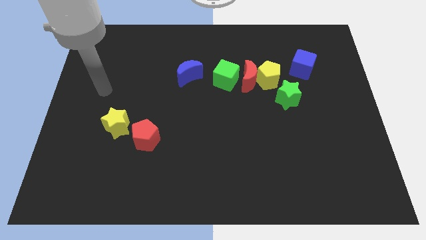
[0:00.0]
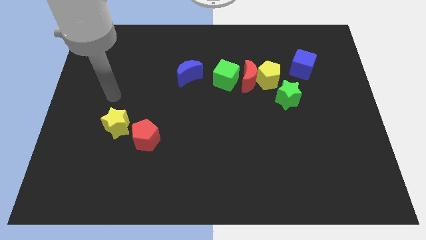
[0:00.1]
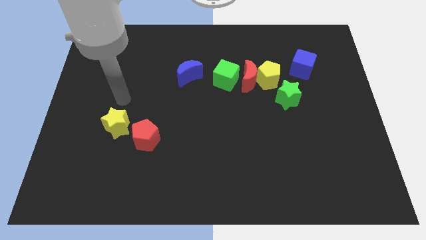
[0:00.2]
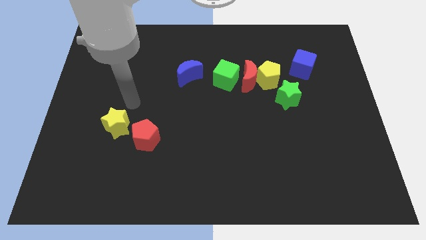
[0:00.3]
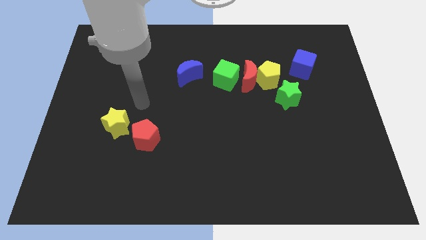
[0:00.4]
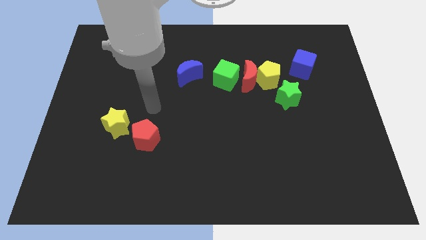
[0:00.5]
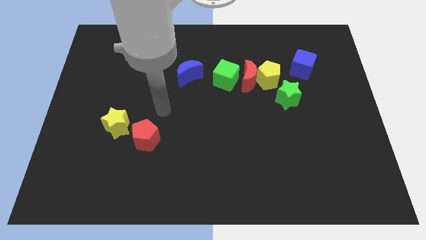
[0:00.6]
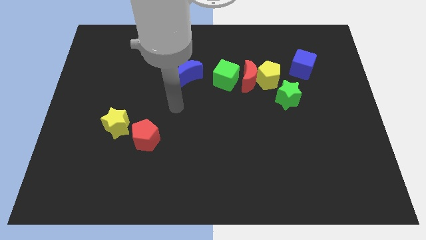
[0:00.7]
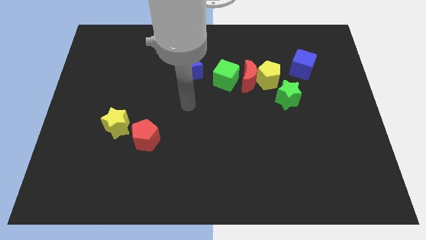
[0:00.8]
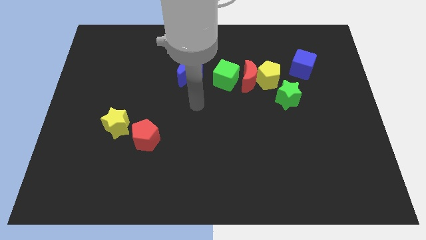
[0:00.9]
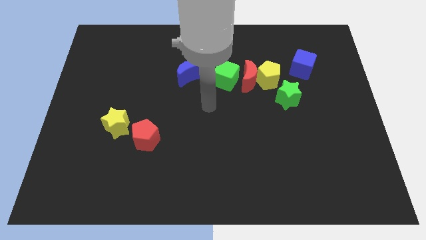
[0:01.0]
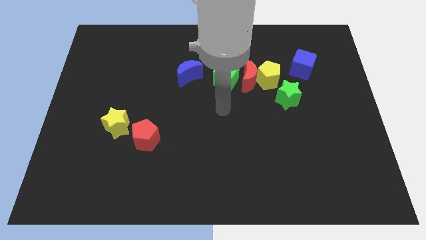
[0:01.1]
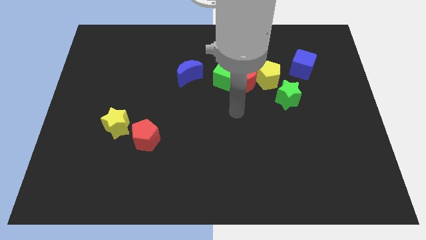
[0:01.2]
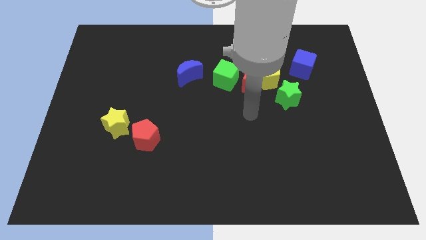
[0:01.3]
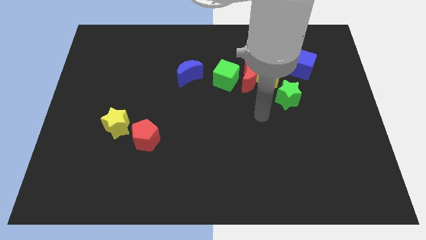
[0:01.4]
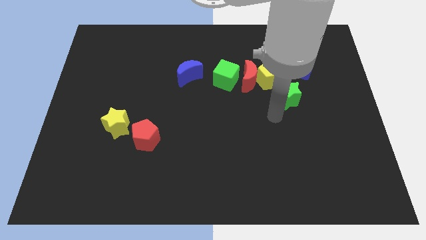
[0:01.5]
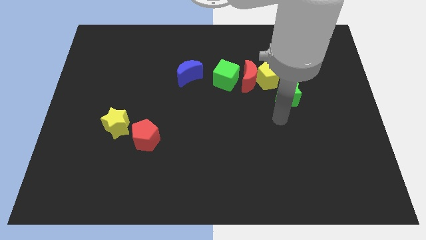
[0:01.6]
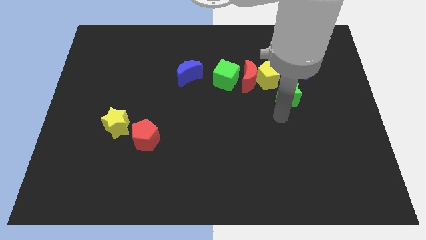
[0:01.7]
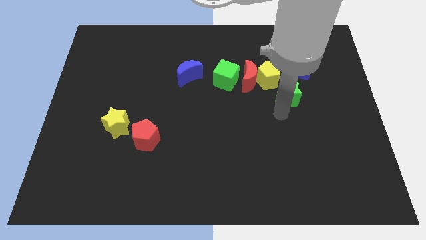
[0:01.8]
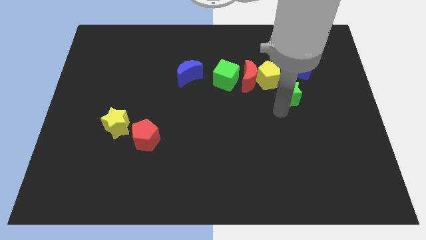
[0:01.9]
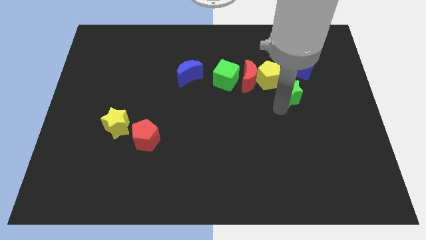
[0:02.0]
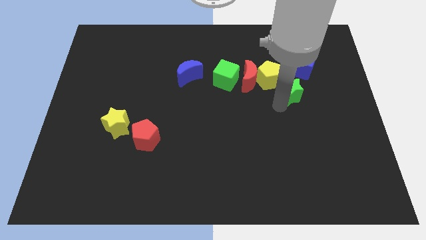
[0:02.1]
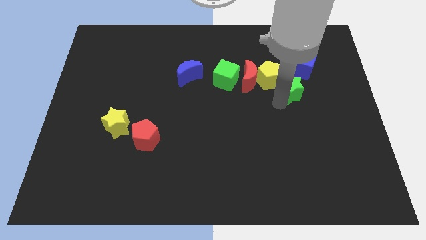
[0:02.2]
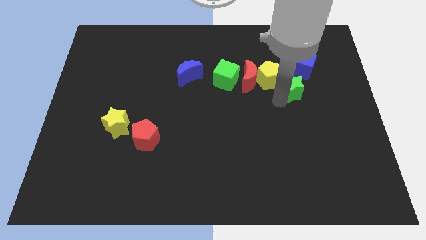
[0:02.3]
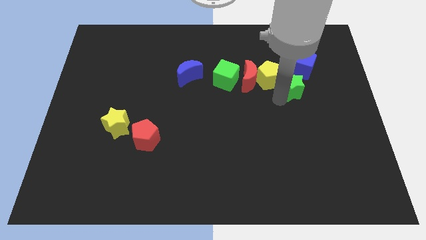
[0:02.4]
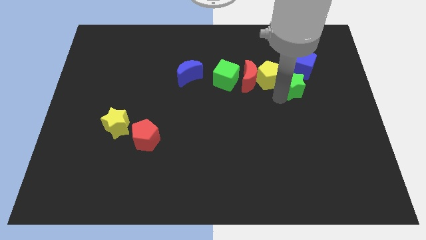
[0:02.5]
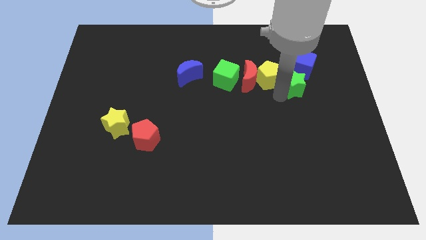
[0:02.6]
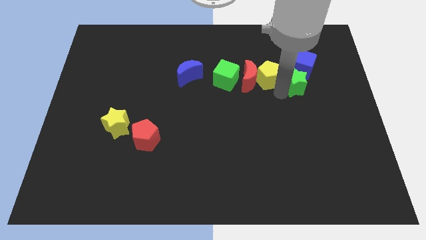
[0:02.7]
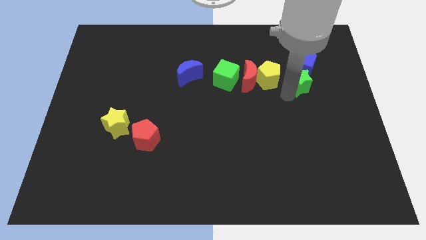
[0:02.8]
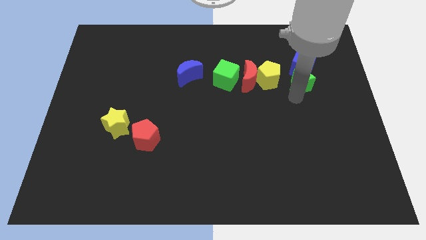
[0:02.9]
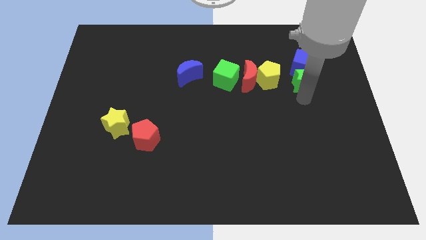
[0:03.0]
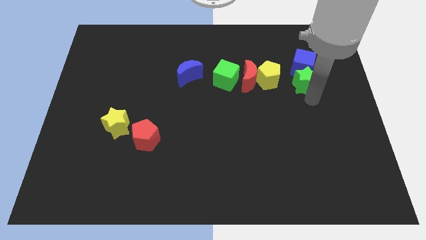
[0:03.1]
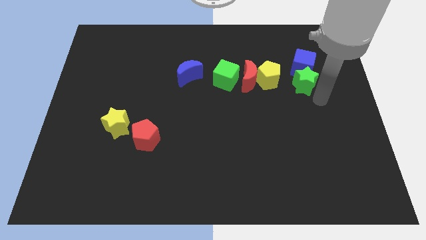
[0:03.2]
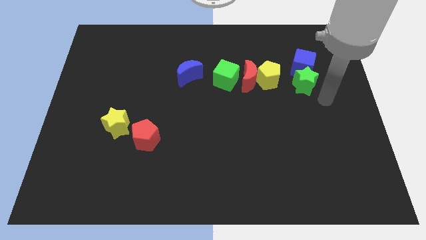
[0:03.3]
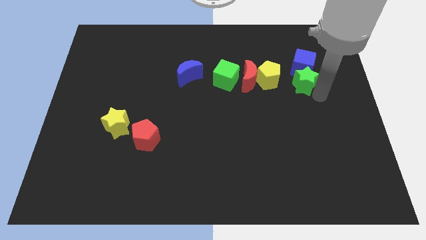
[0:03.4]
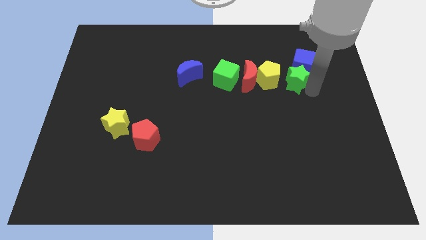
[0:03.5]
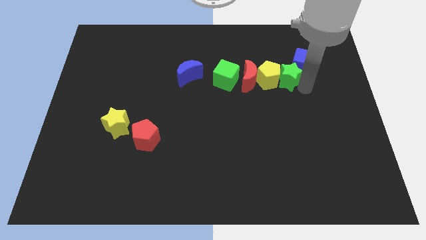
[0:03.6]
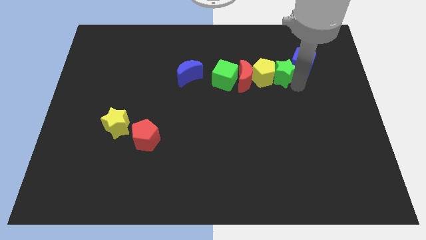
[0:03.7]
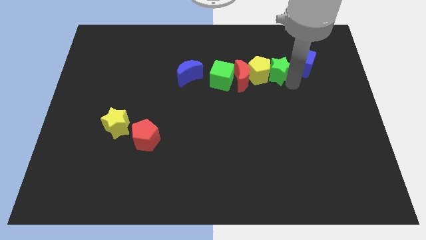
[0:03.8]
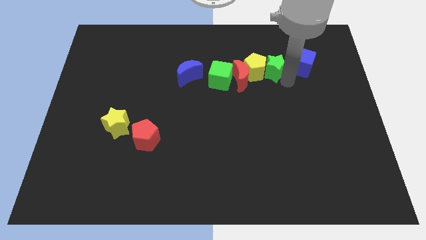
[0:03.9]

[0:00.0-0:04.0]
push the green star upwards and left diagonally a bit

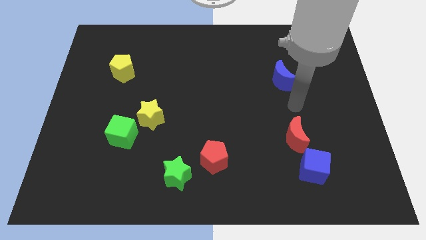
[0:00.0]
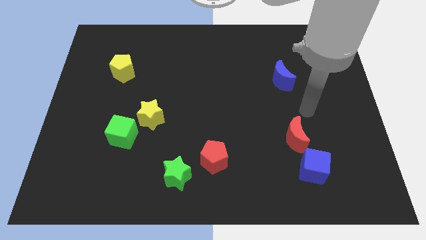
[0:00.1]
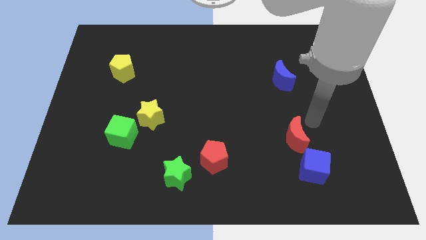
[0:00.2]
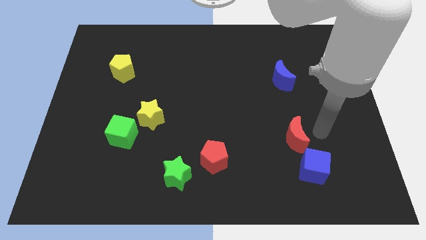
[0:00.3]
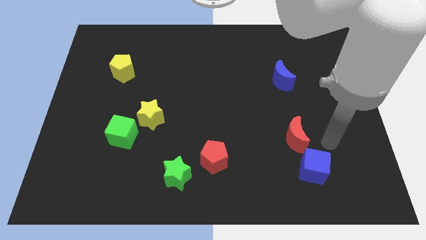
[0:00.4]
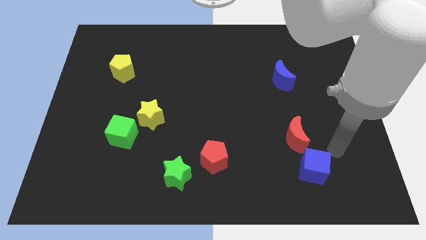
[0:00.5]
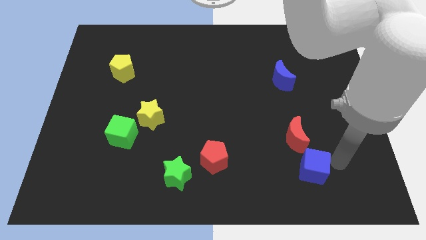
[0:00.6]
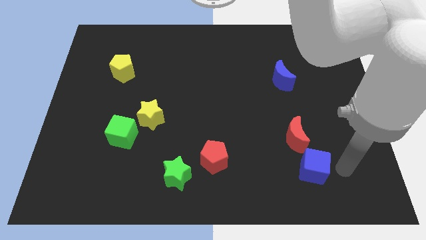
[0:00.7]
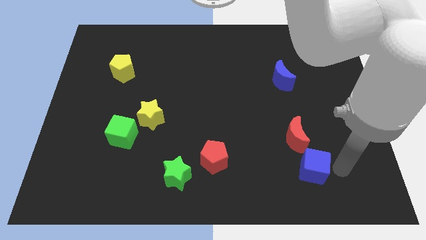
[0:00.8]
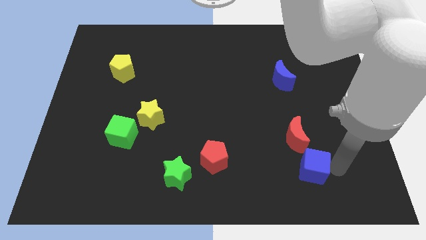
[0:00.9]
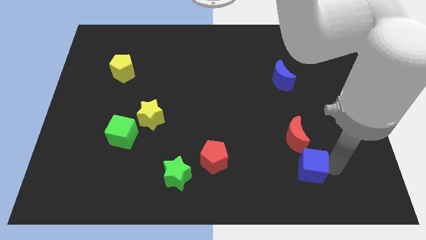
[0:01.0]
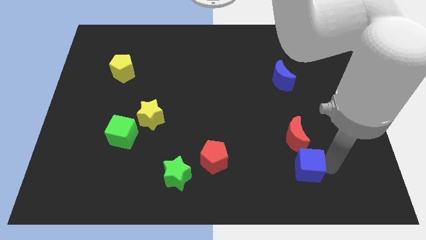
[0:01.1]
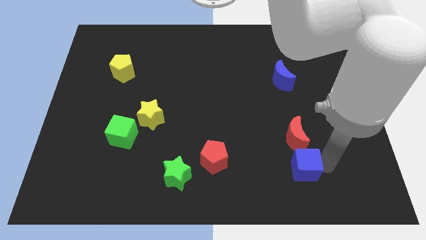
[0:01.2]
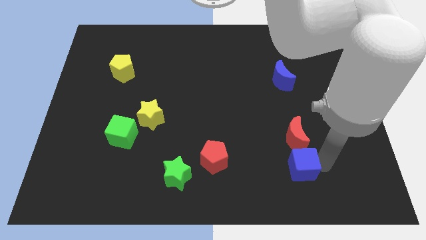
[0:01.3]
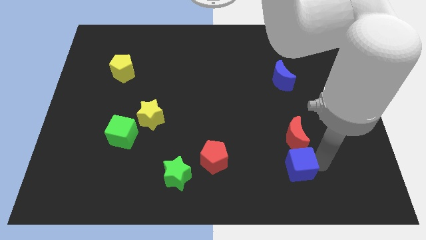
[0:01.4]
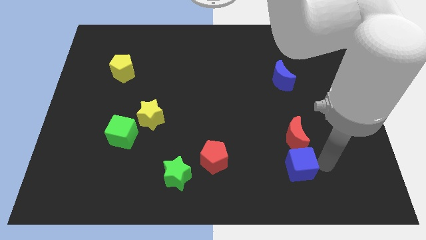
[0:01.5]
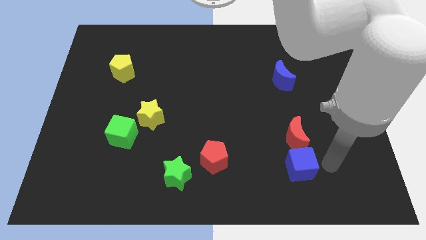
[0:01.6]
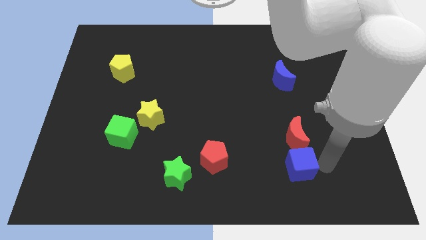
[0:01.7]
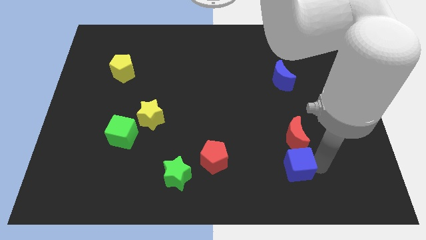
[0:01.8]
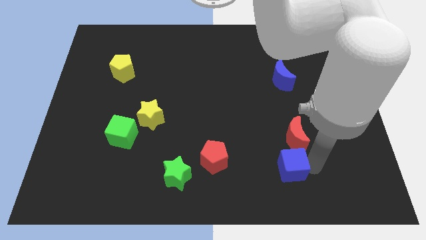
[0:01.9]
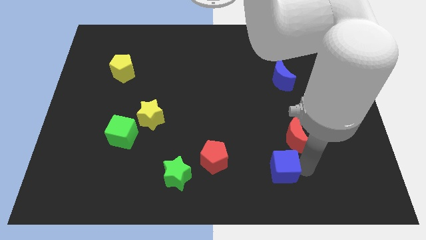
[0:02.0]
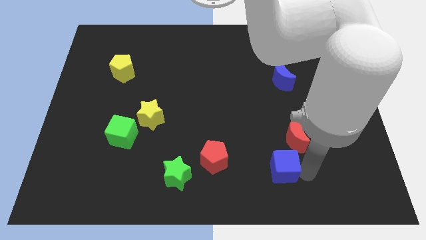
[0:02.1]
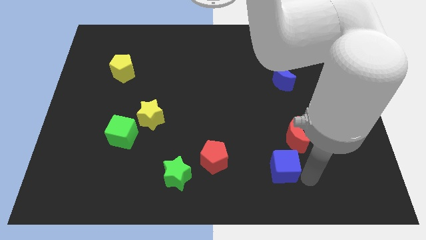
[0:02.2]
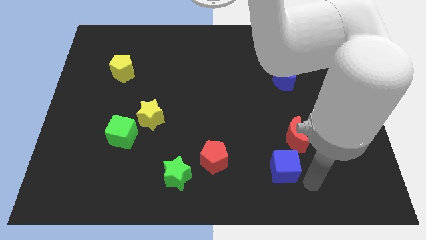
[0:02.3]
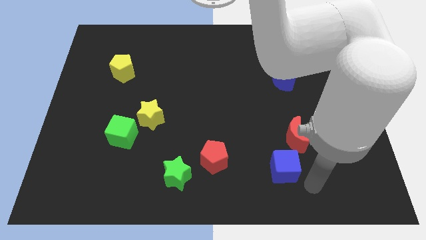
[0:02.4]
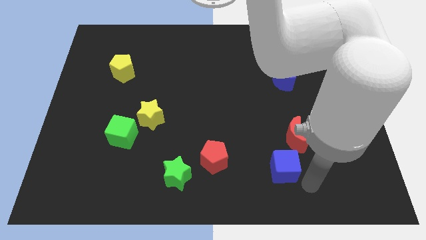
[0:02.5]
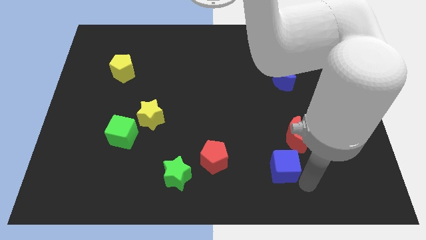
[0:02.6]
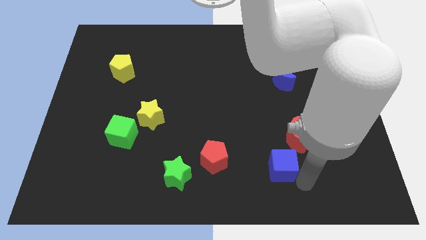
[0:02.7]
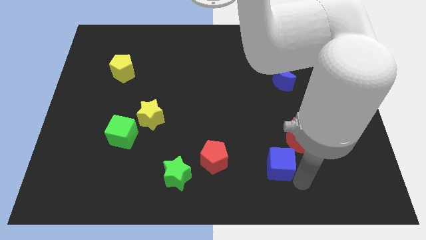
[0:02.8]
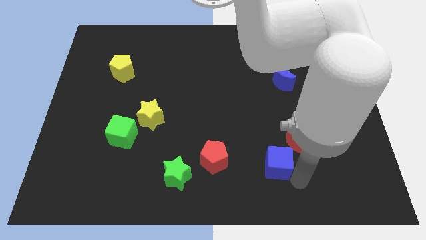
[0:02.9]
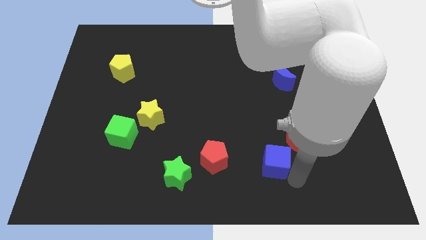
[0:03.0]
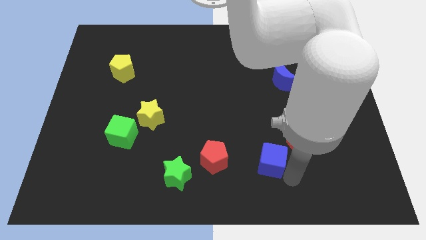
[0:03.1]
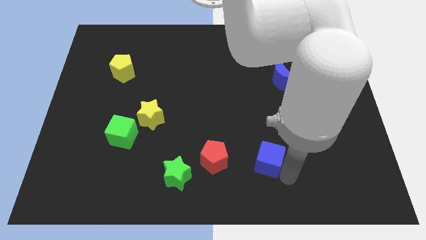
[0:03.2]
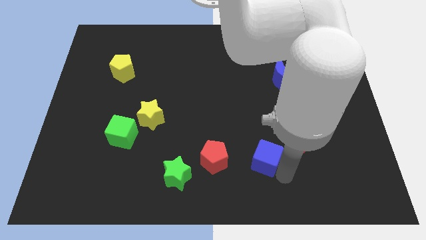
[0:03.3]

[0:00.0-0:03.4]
push the blue cube a little bit upwards and left

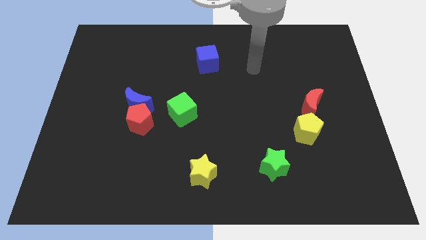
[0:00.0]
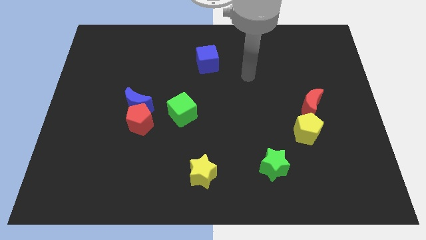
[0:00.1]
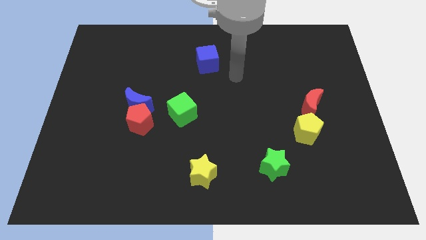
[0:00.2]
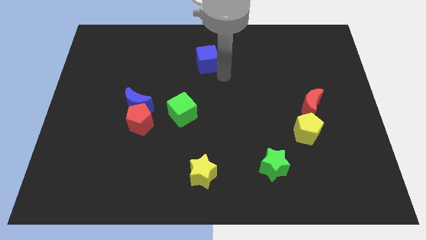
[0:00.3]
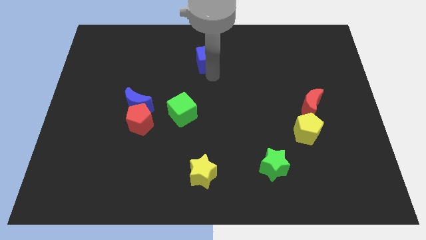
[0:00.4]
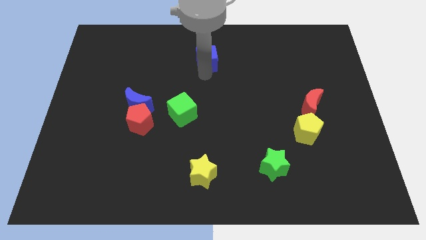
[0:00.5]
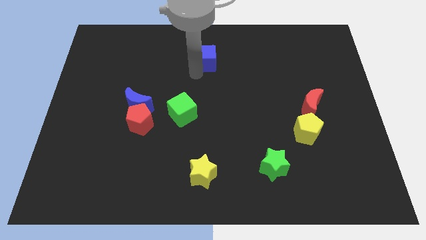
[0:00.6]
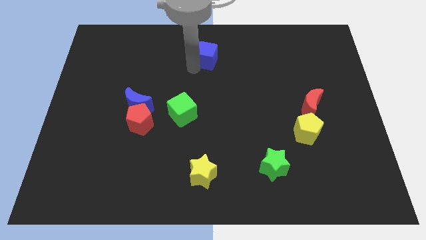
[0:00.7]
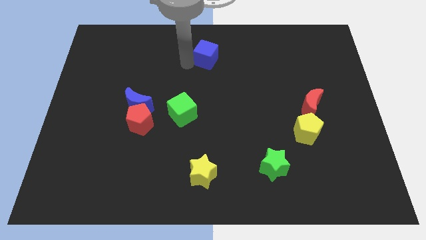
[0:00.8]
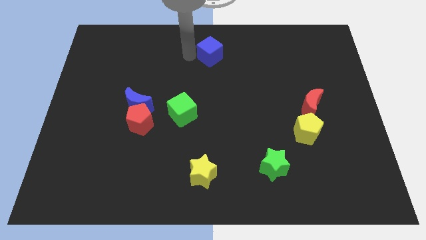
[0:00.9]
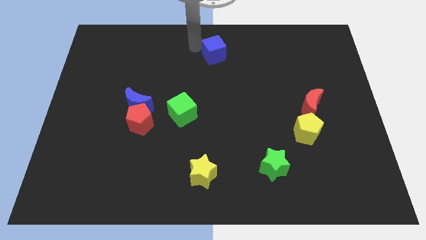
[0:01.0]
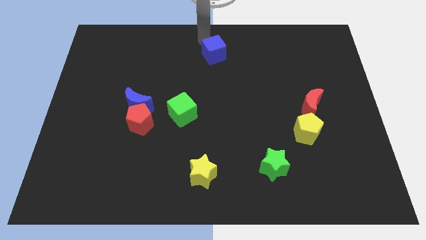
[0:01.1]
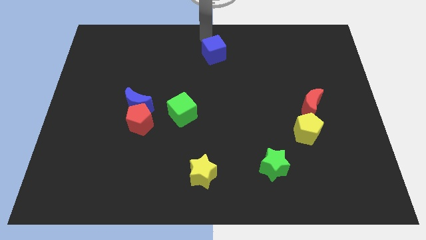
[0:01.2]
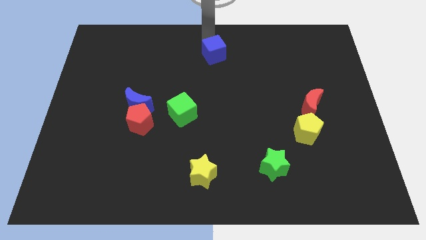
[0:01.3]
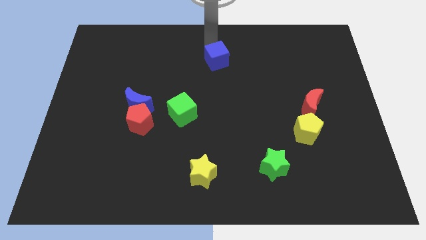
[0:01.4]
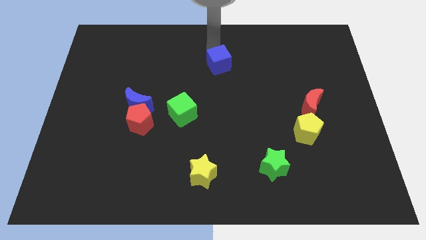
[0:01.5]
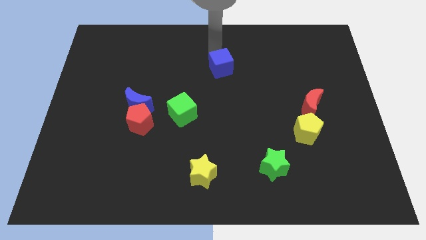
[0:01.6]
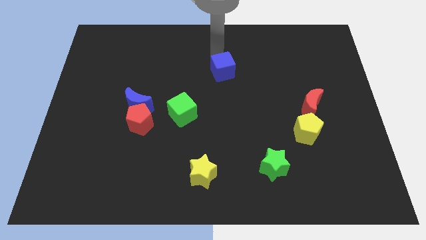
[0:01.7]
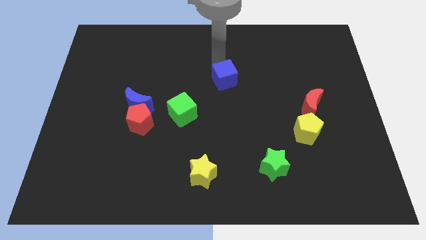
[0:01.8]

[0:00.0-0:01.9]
slide the blue cube a bit down and to the right diagonally
